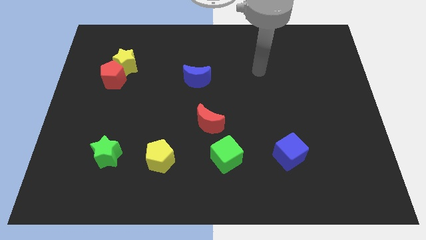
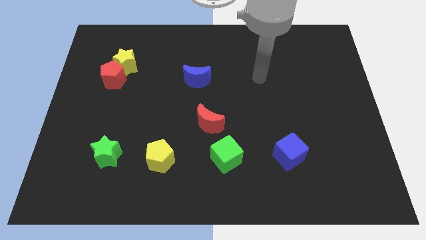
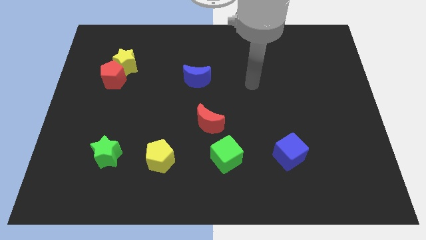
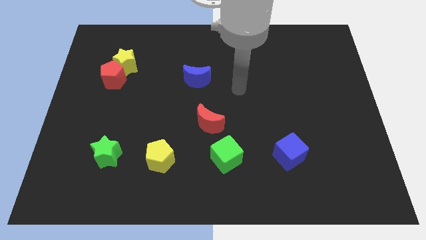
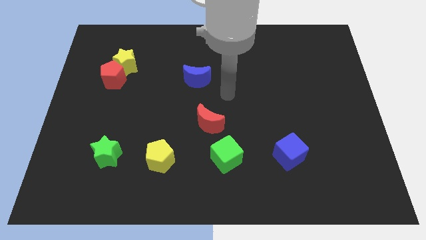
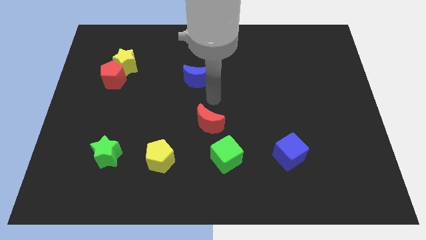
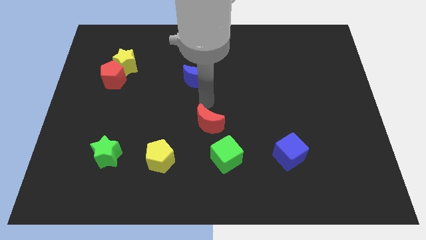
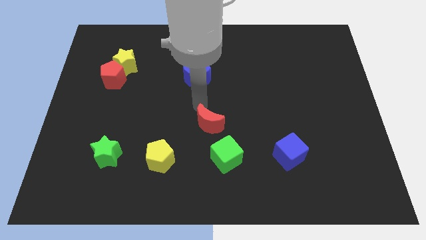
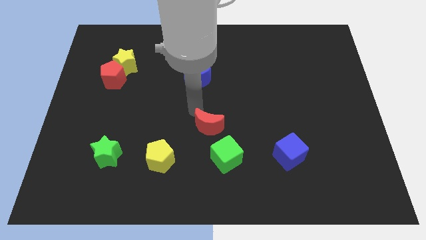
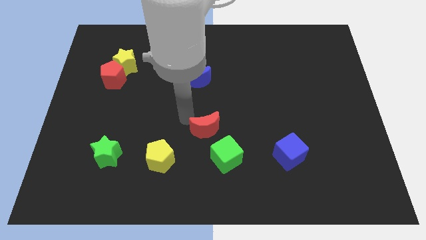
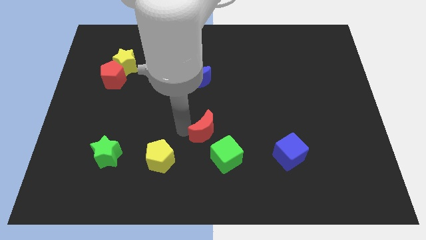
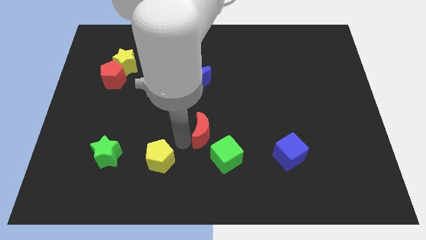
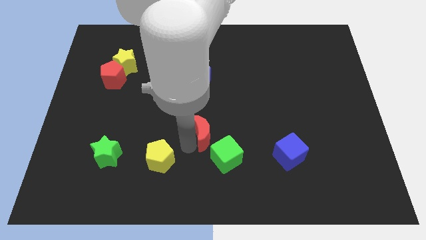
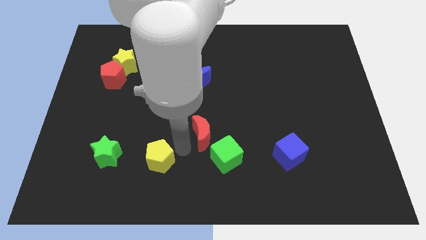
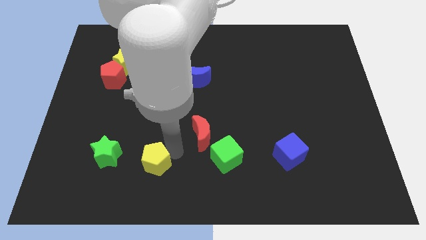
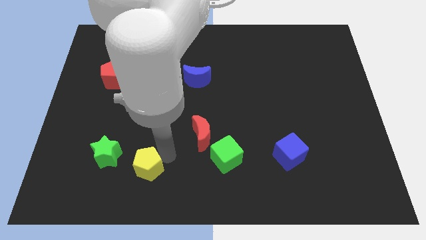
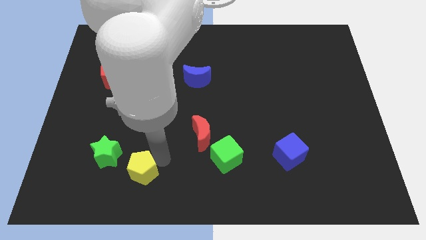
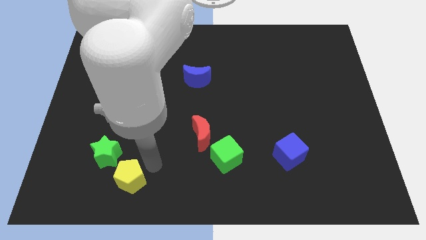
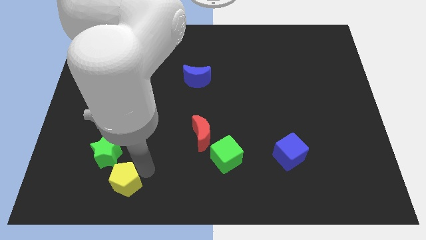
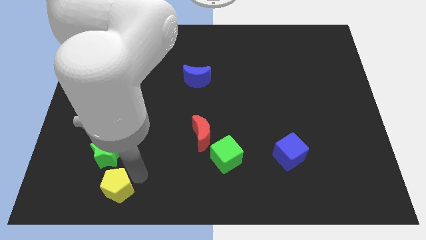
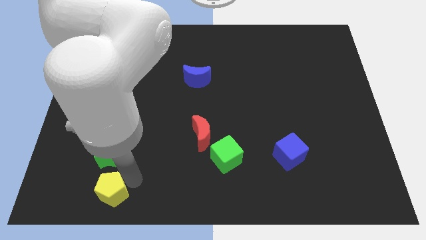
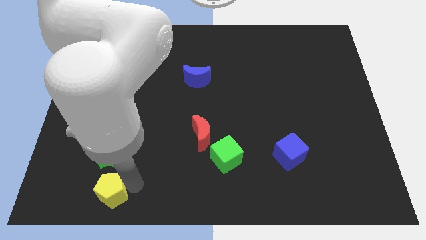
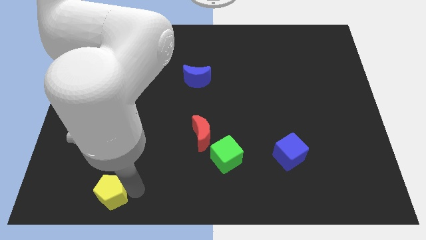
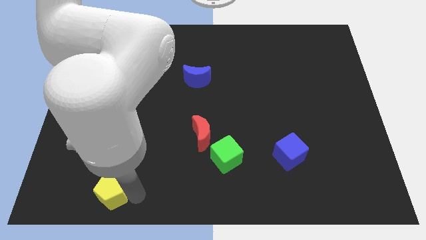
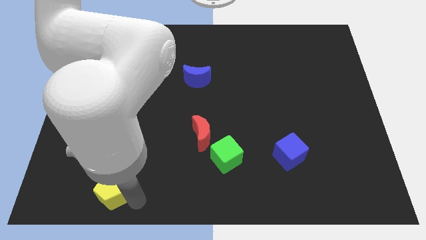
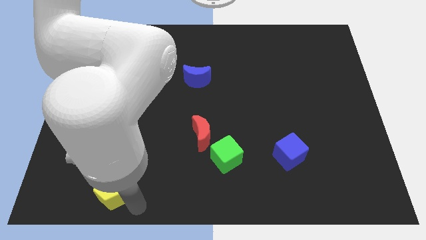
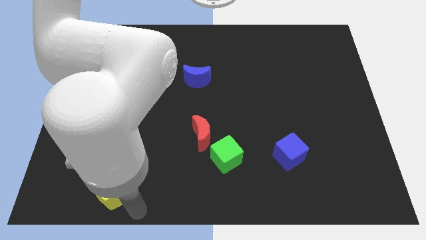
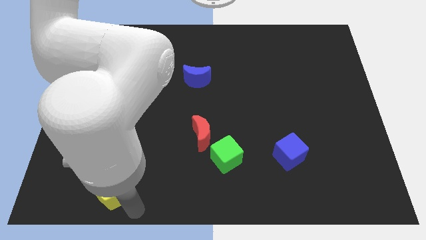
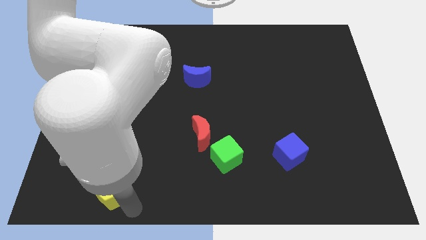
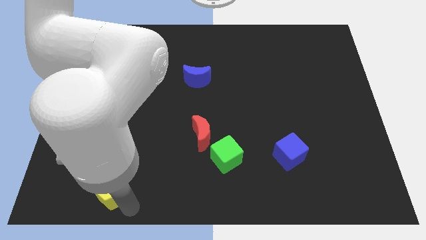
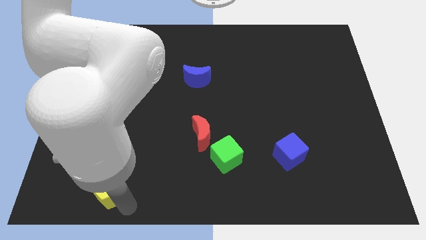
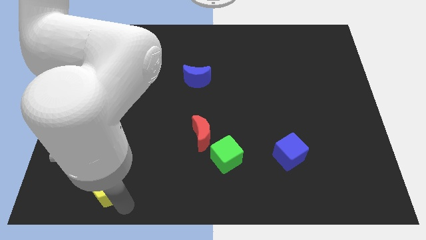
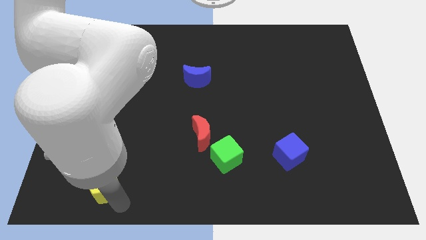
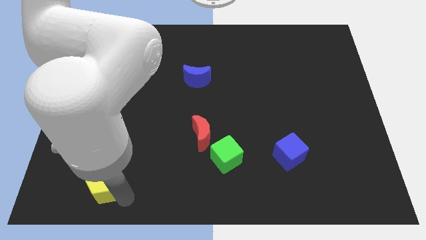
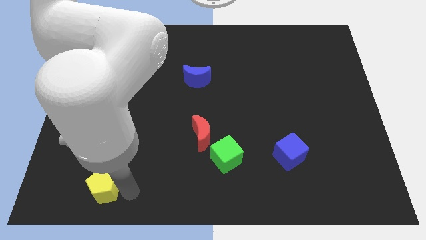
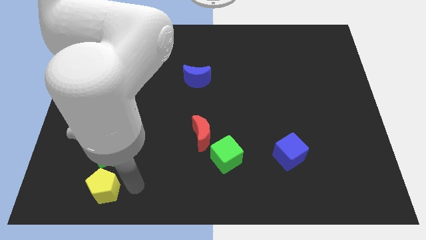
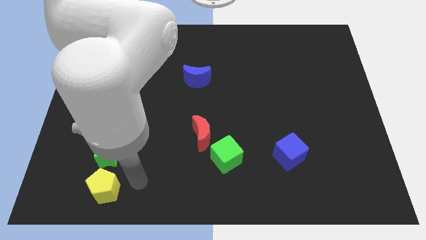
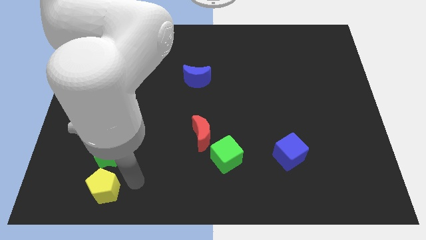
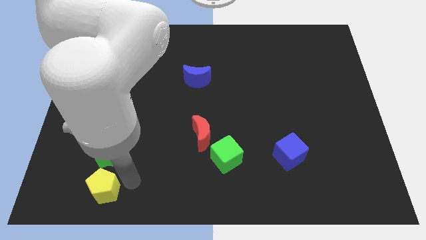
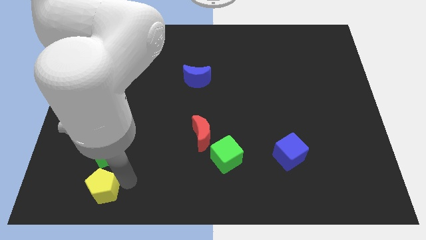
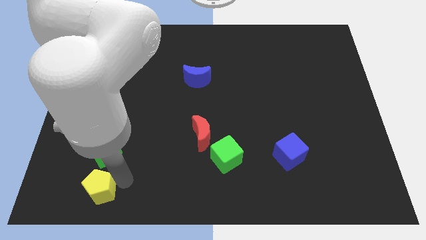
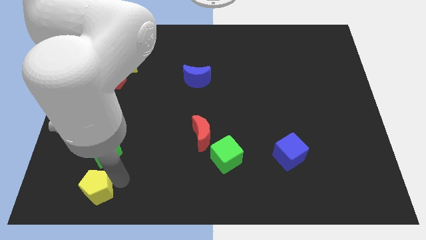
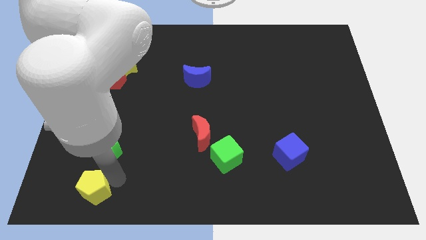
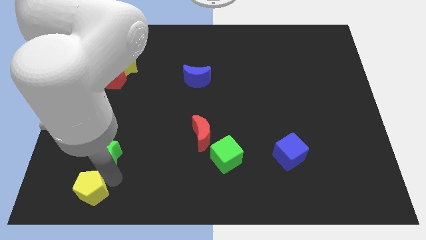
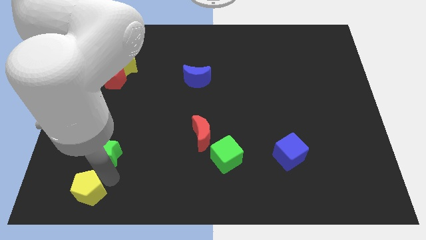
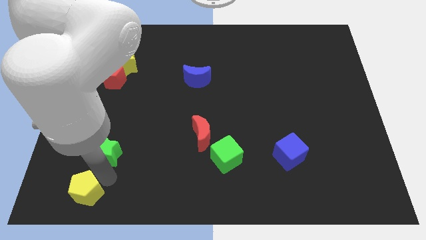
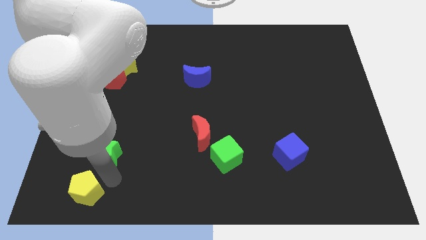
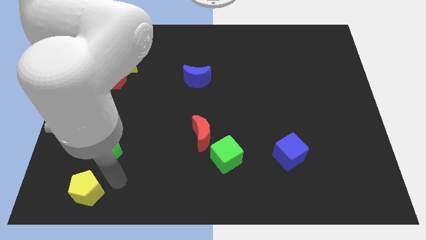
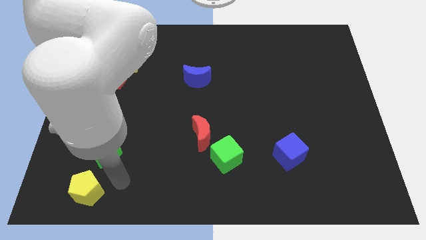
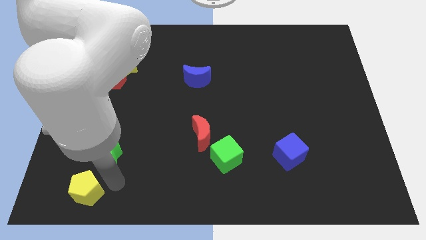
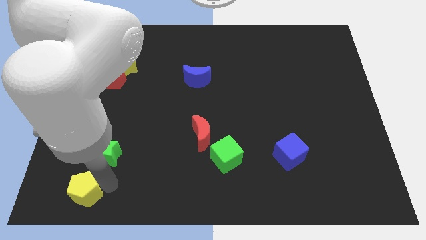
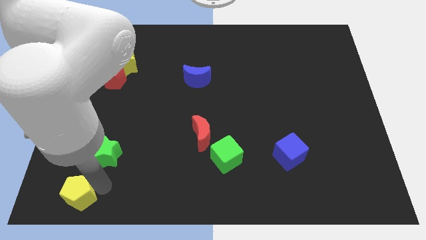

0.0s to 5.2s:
push the yellow pentagon to the bottom left

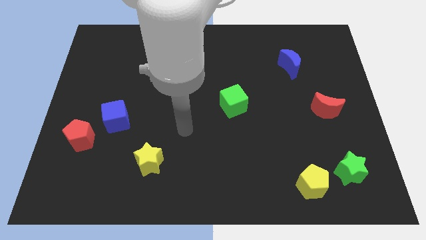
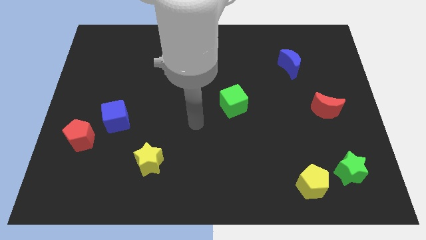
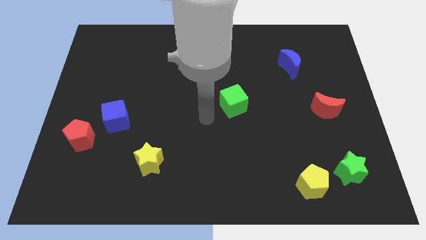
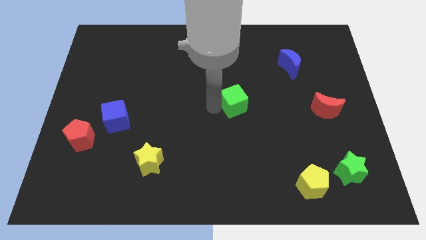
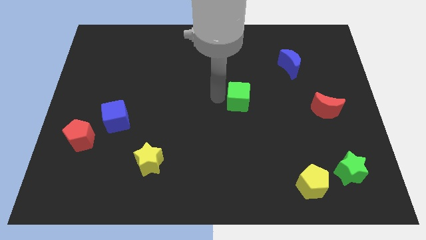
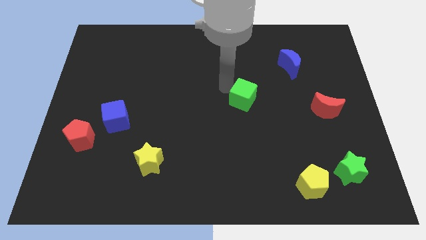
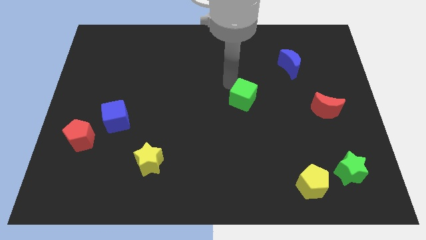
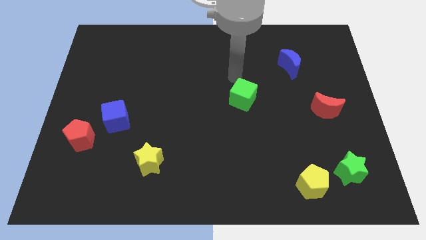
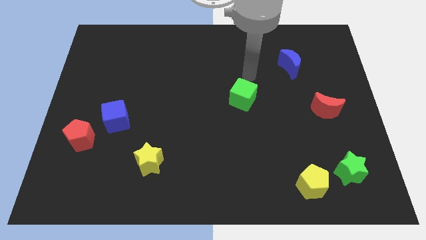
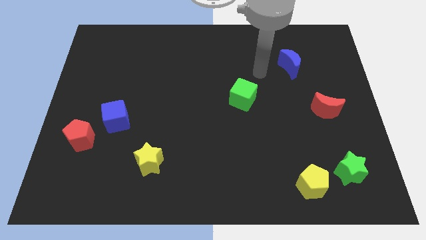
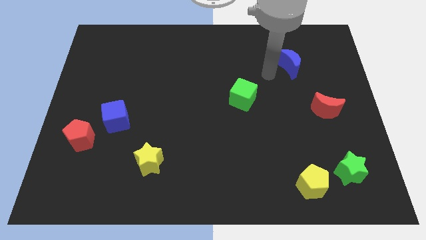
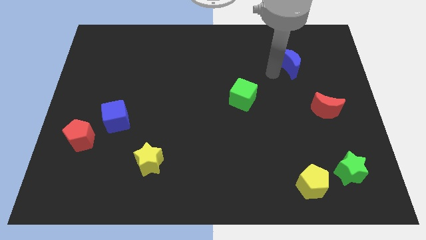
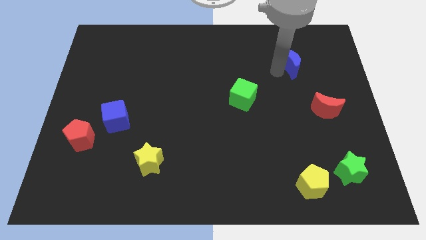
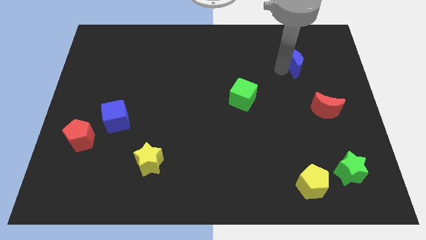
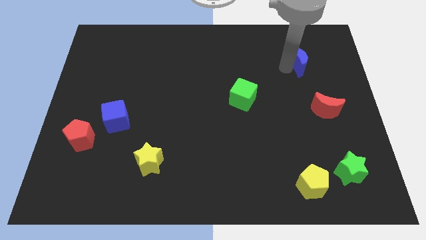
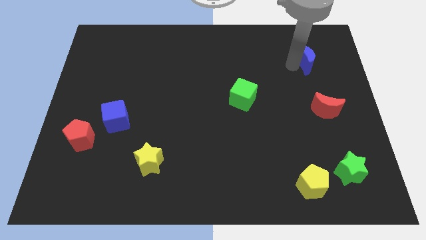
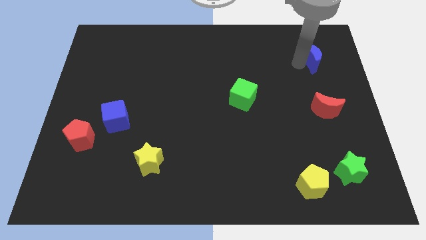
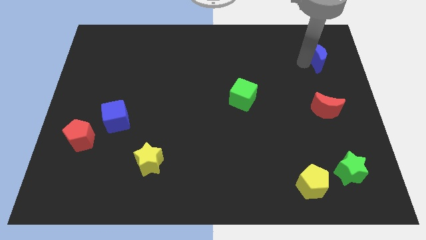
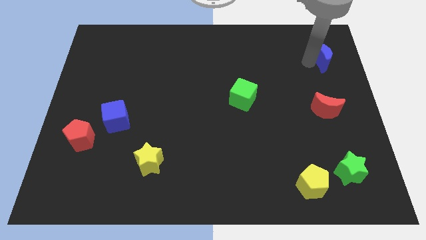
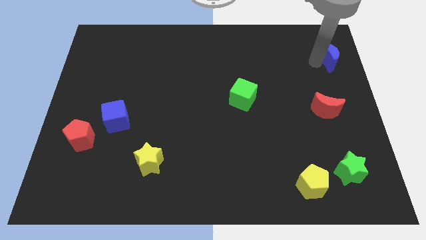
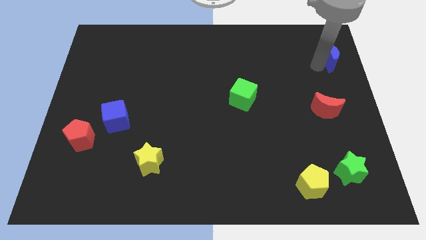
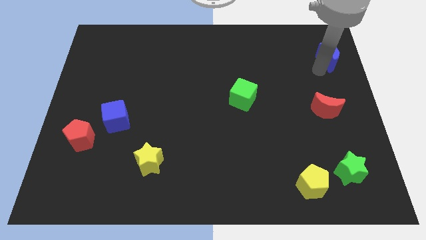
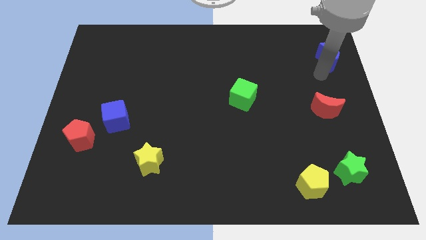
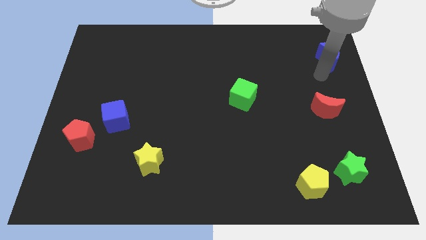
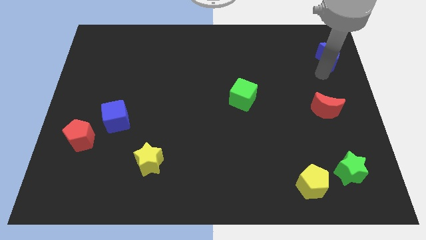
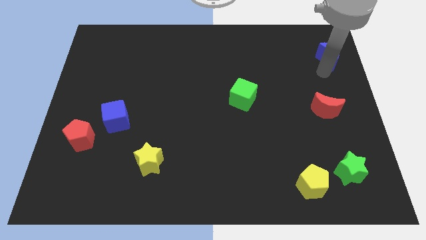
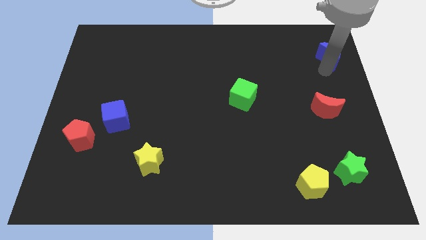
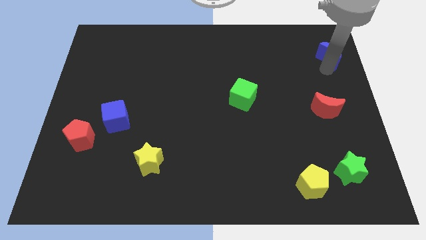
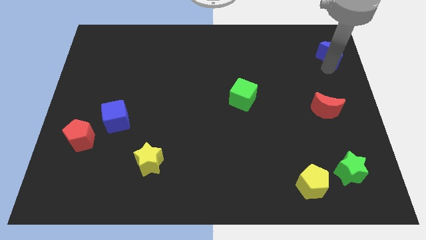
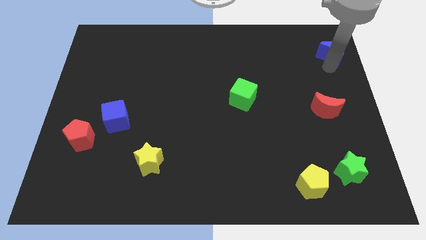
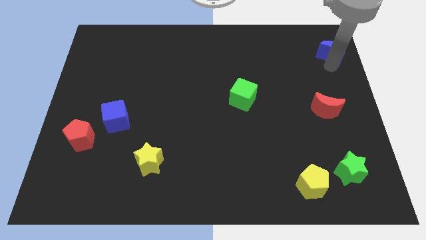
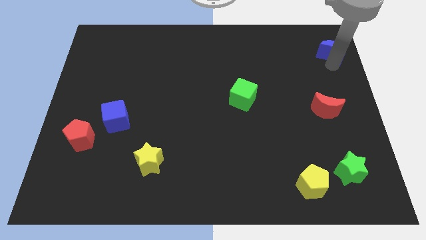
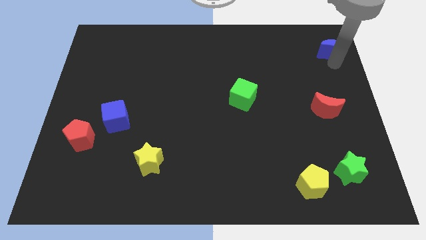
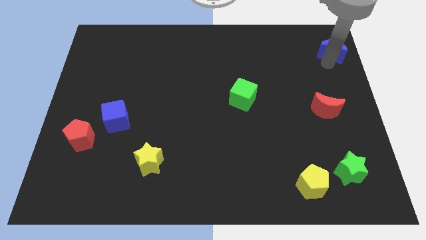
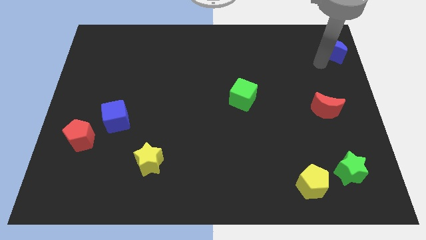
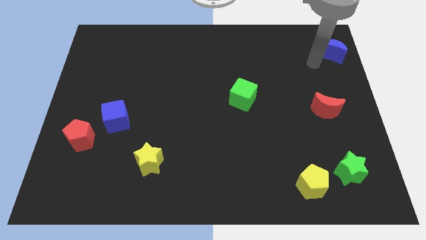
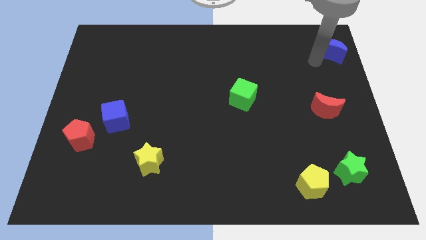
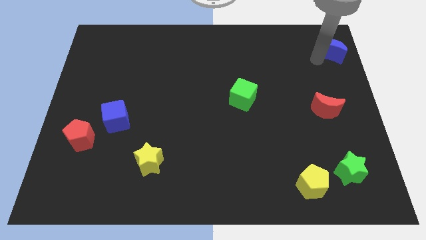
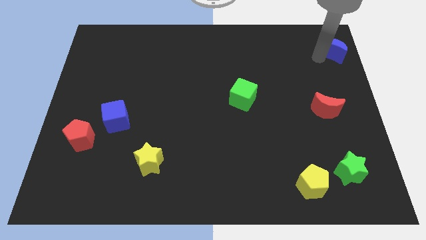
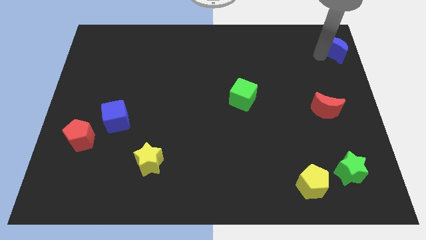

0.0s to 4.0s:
push the blue moon to the top right of the board
